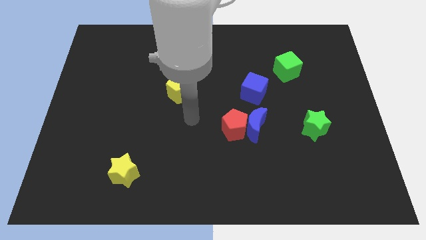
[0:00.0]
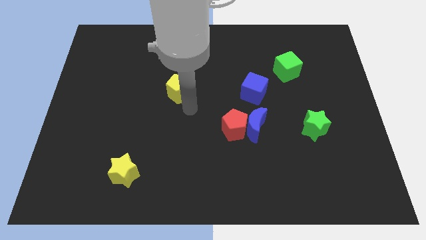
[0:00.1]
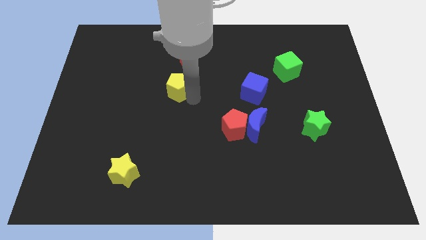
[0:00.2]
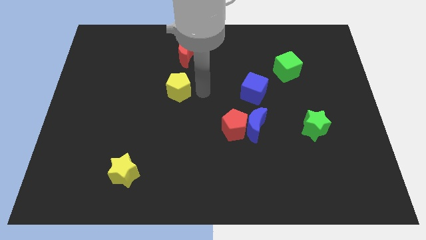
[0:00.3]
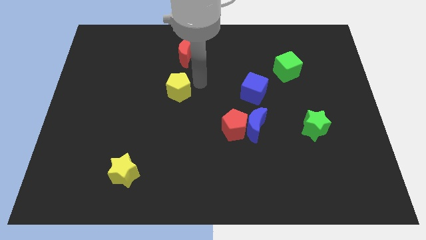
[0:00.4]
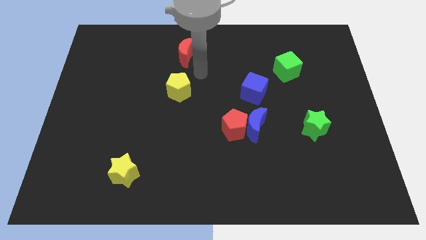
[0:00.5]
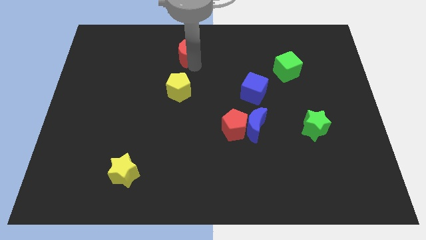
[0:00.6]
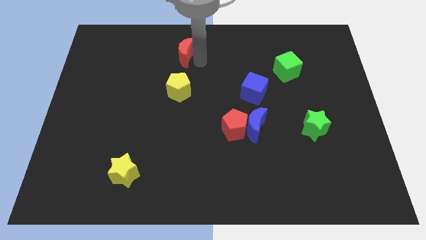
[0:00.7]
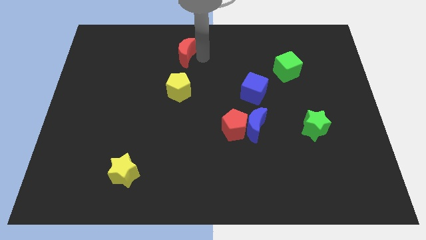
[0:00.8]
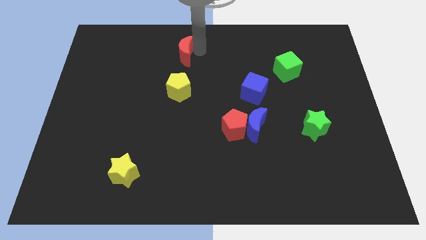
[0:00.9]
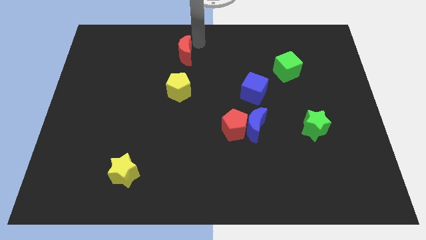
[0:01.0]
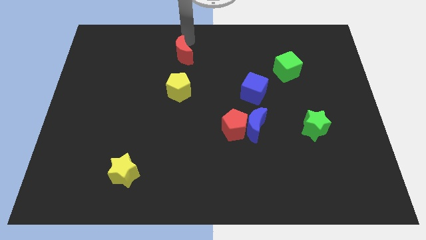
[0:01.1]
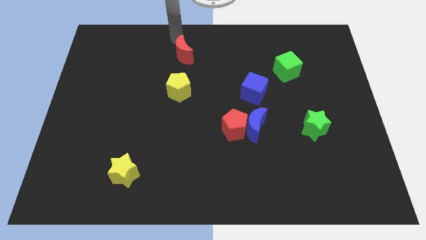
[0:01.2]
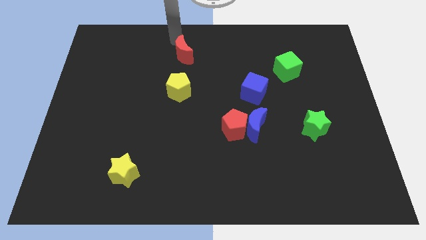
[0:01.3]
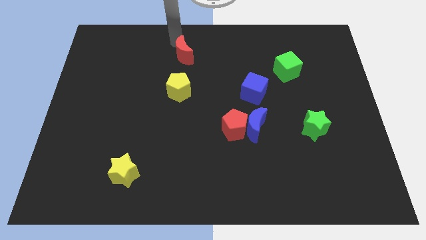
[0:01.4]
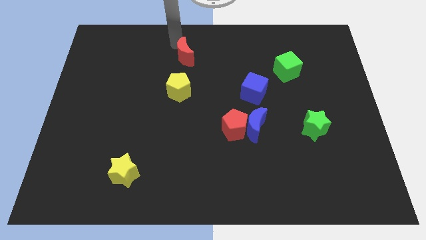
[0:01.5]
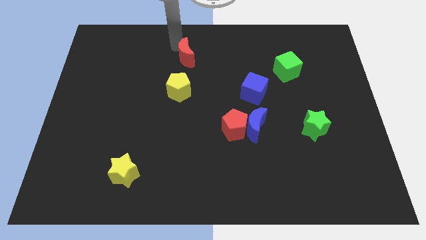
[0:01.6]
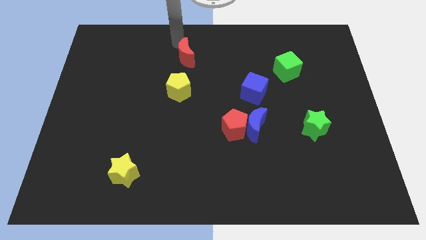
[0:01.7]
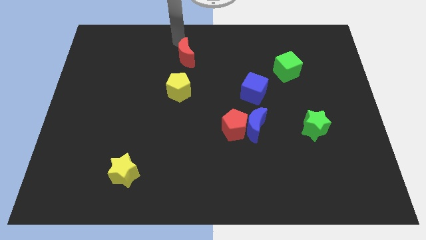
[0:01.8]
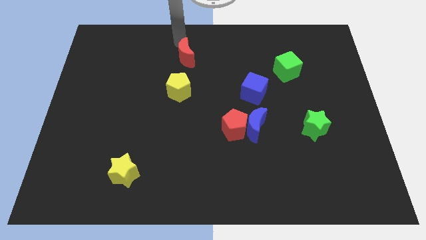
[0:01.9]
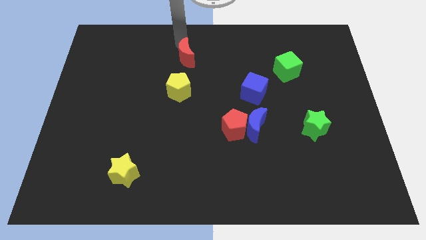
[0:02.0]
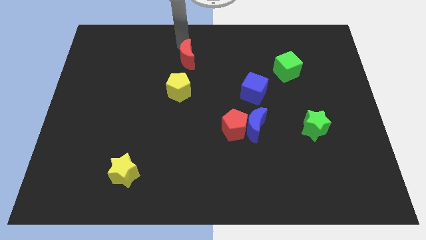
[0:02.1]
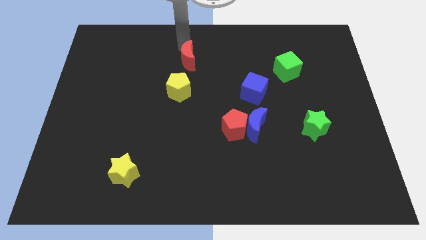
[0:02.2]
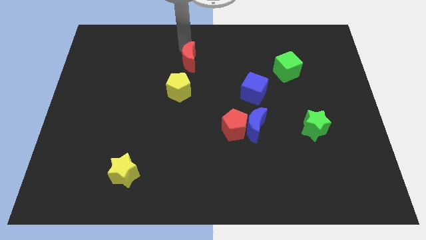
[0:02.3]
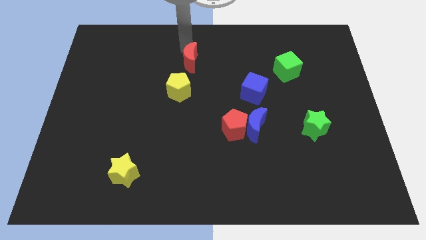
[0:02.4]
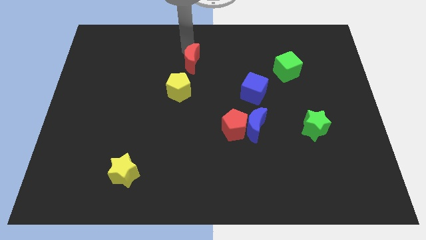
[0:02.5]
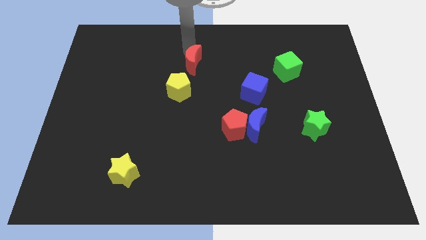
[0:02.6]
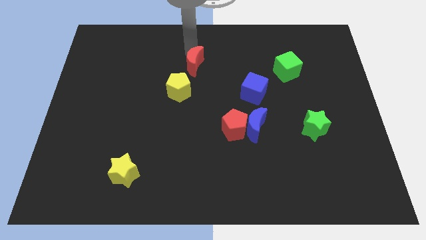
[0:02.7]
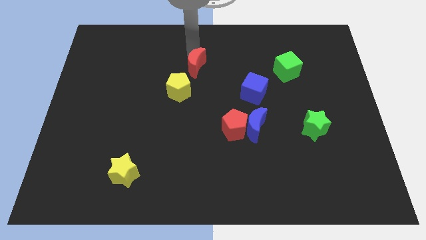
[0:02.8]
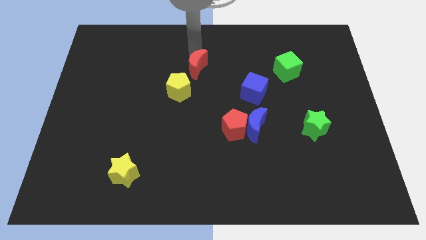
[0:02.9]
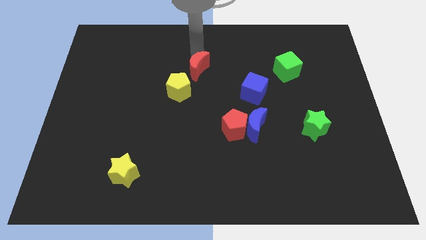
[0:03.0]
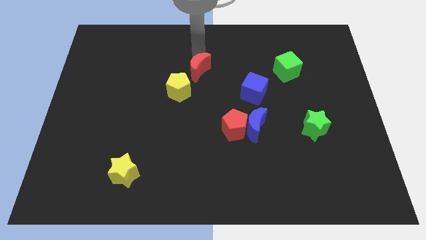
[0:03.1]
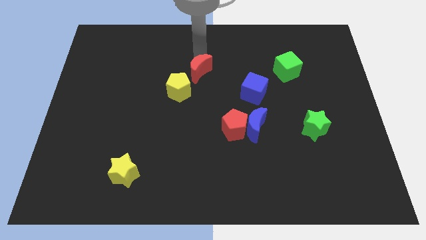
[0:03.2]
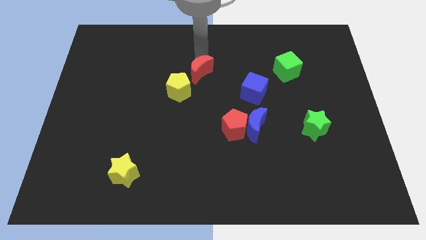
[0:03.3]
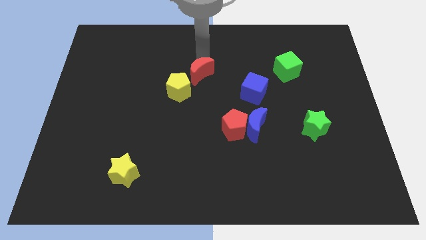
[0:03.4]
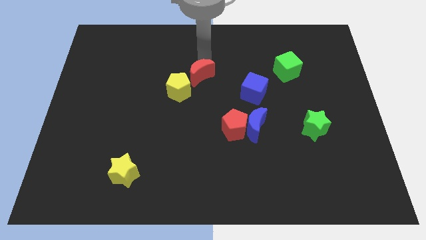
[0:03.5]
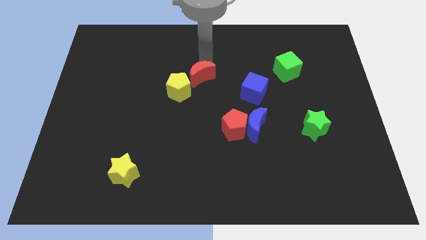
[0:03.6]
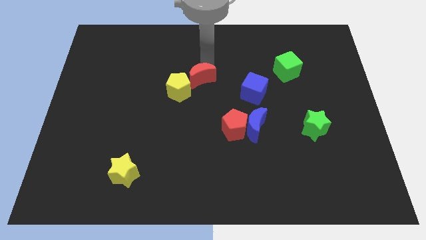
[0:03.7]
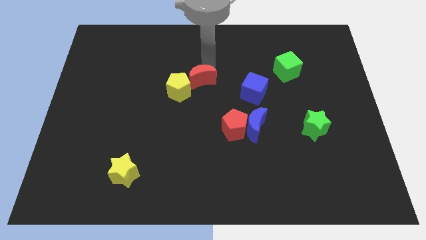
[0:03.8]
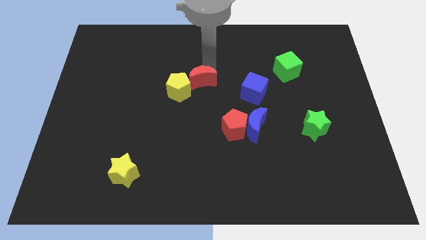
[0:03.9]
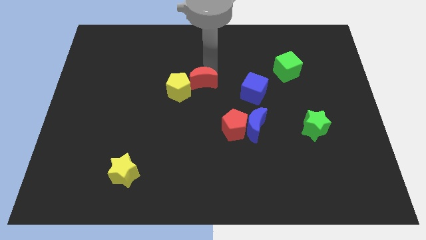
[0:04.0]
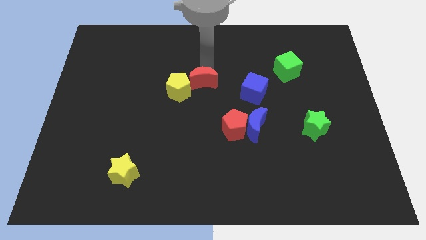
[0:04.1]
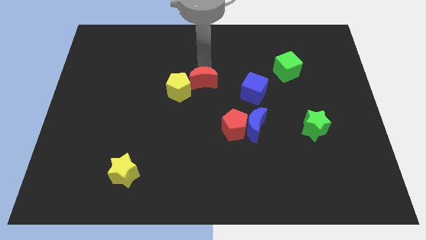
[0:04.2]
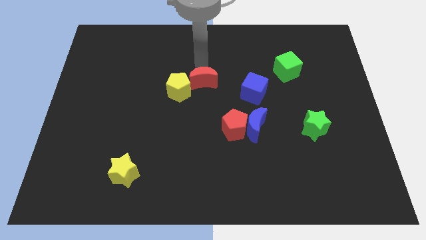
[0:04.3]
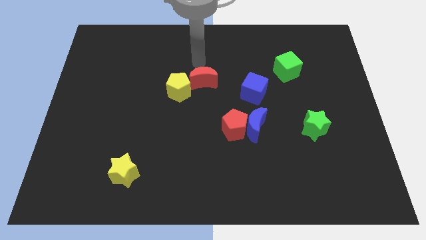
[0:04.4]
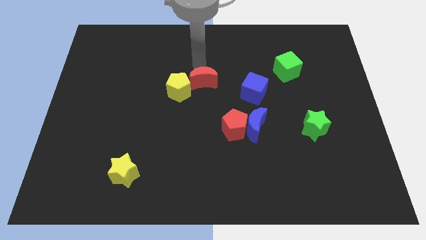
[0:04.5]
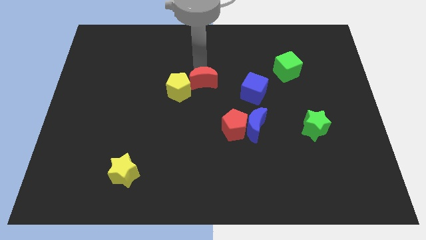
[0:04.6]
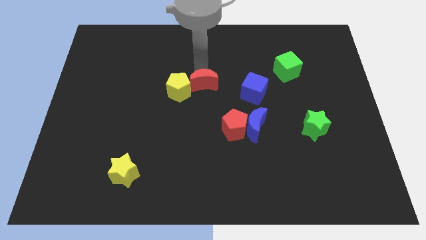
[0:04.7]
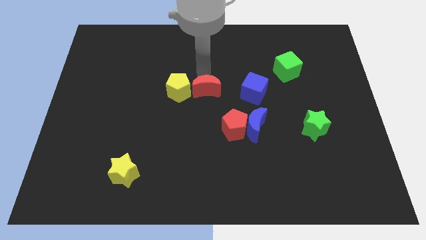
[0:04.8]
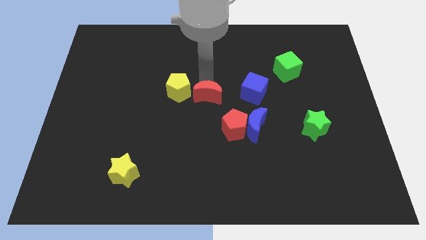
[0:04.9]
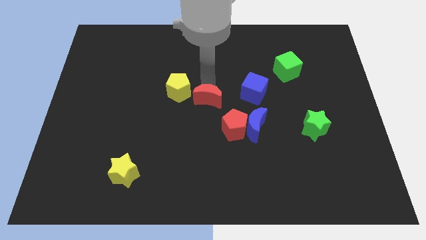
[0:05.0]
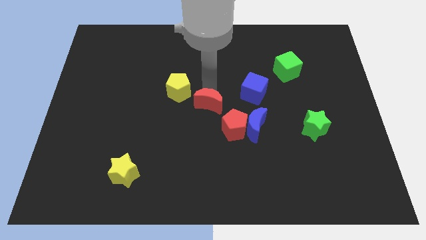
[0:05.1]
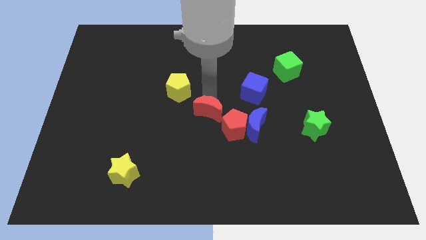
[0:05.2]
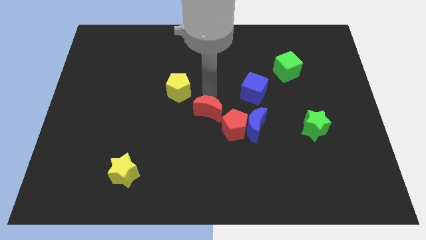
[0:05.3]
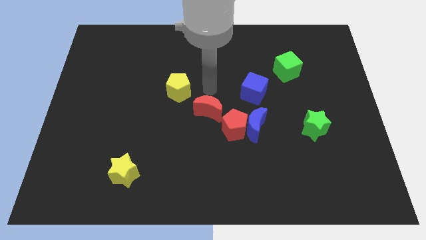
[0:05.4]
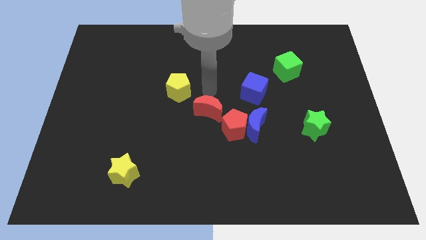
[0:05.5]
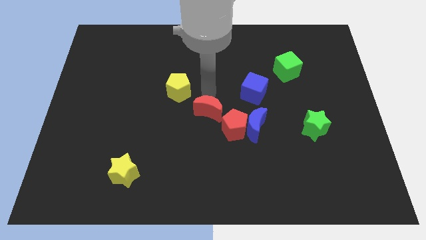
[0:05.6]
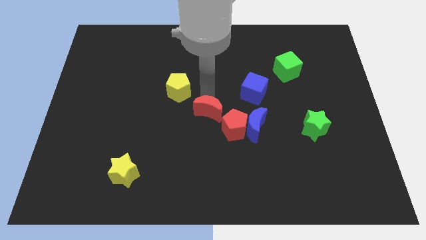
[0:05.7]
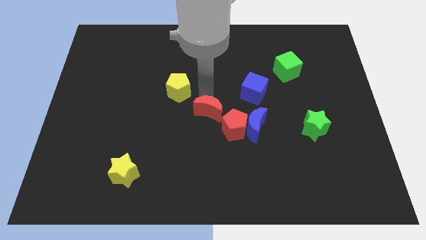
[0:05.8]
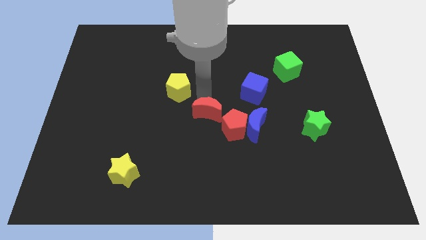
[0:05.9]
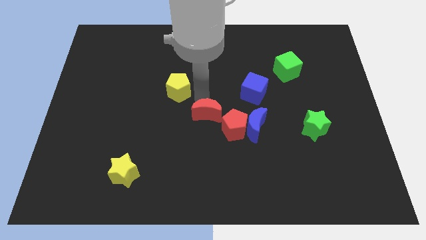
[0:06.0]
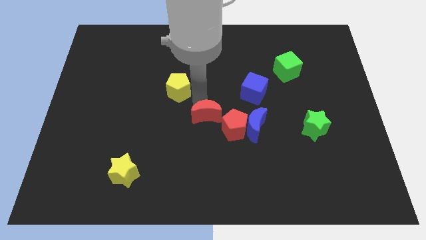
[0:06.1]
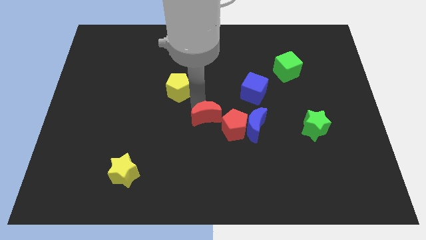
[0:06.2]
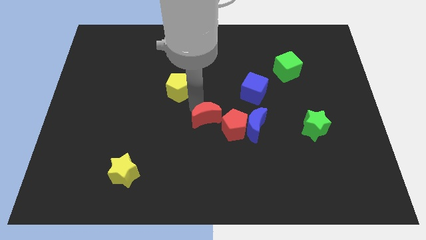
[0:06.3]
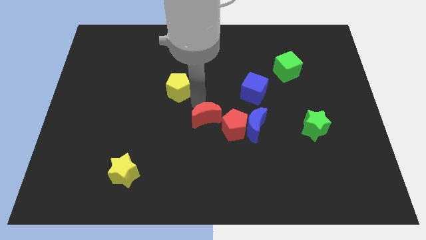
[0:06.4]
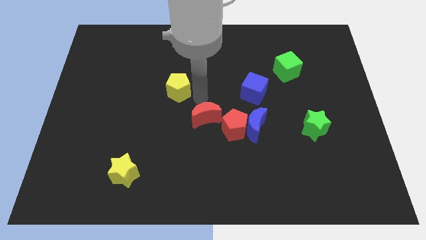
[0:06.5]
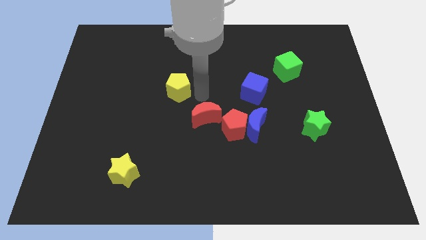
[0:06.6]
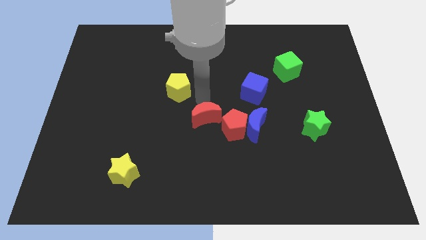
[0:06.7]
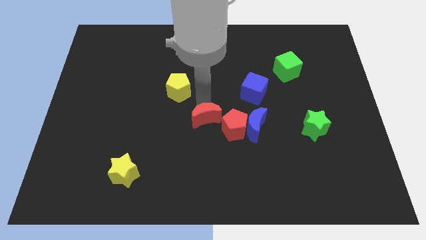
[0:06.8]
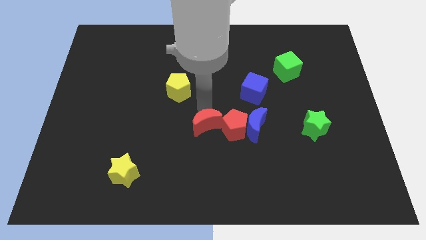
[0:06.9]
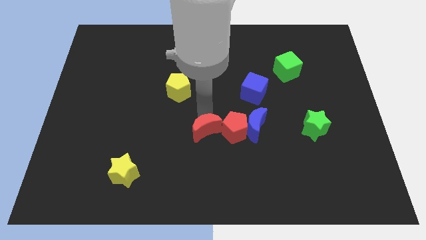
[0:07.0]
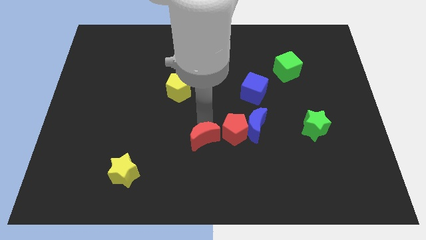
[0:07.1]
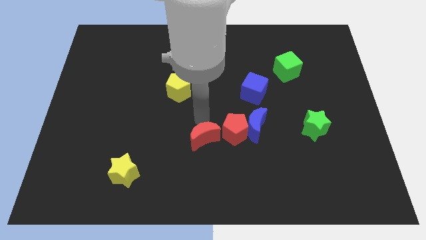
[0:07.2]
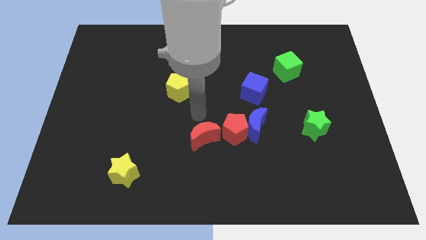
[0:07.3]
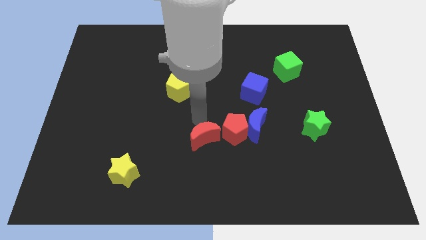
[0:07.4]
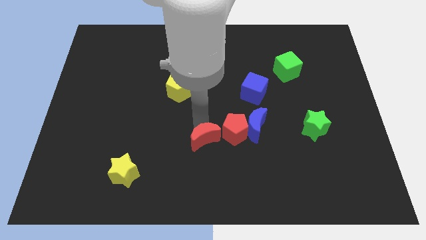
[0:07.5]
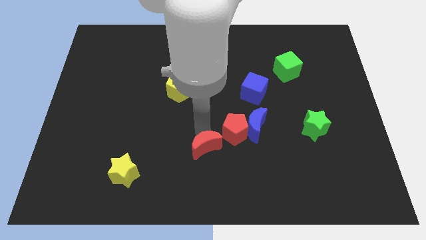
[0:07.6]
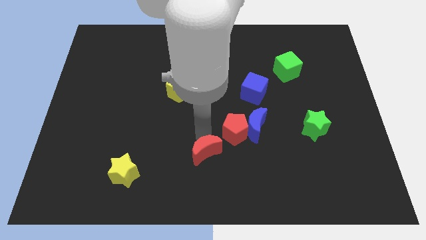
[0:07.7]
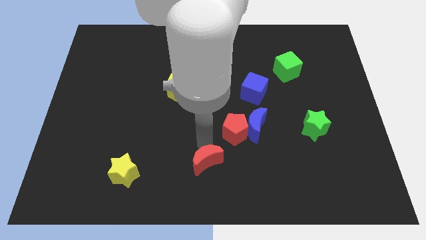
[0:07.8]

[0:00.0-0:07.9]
push the red moon to the bottom
